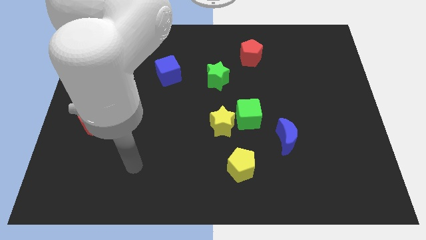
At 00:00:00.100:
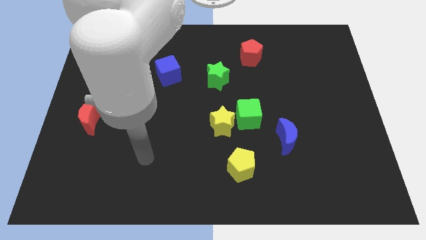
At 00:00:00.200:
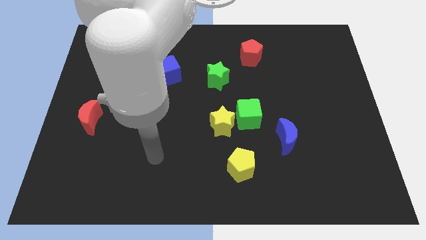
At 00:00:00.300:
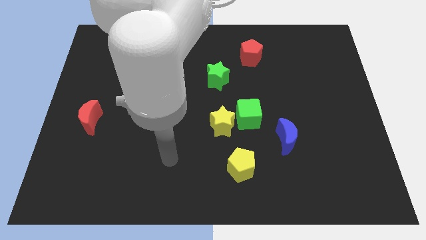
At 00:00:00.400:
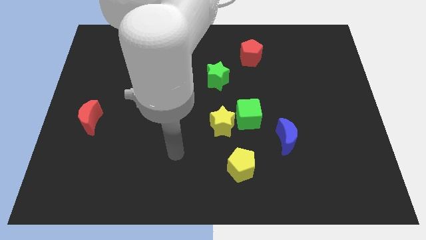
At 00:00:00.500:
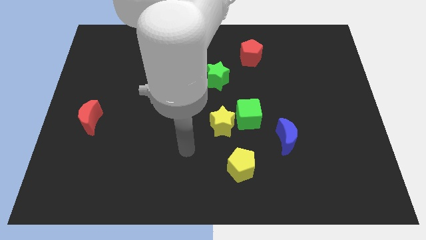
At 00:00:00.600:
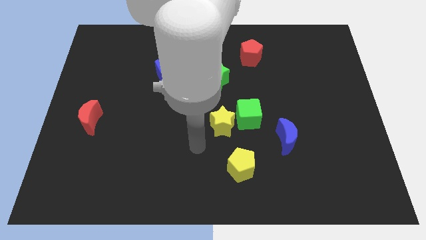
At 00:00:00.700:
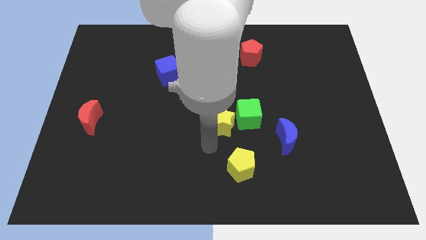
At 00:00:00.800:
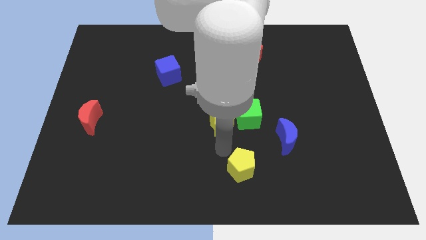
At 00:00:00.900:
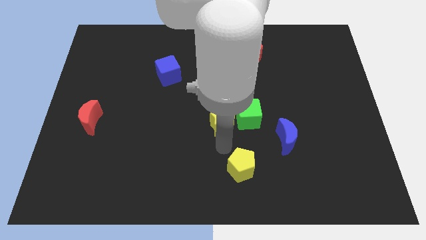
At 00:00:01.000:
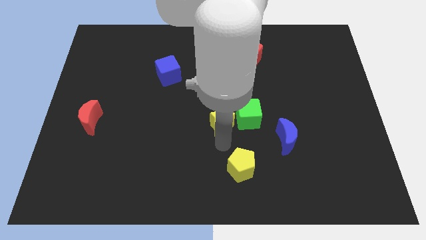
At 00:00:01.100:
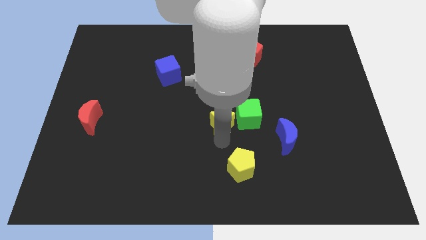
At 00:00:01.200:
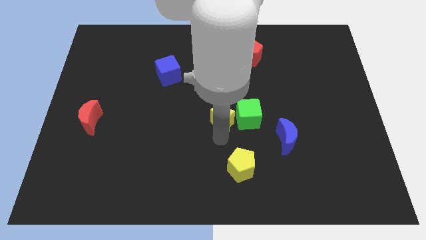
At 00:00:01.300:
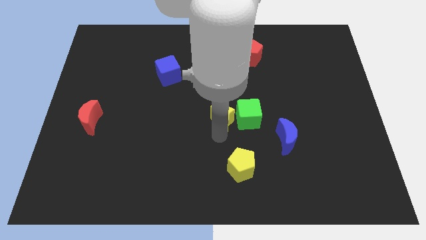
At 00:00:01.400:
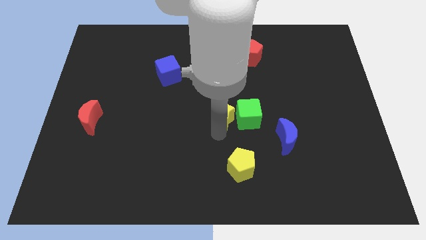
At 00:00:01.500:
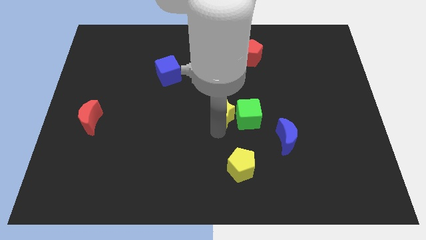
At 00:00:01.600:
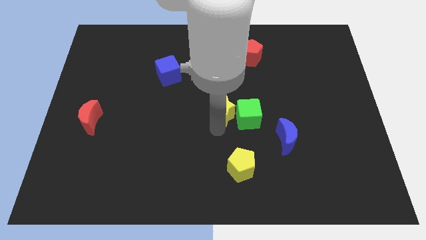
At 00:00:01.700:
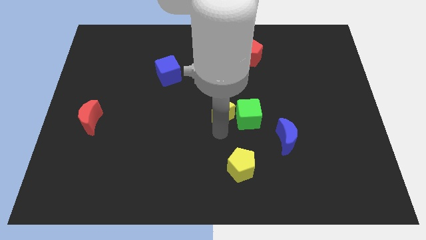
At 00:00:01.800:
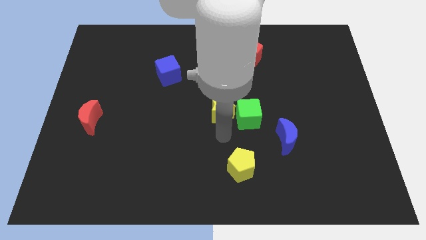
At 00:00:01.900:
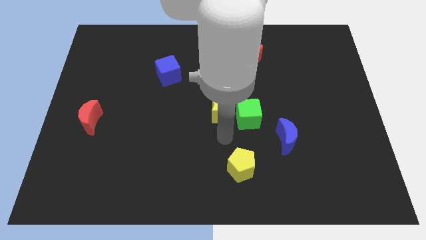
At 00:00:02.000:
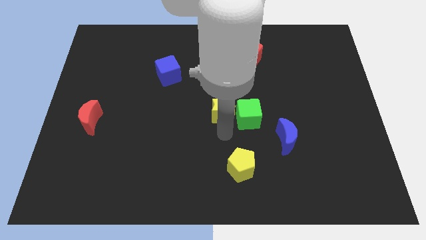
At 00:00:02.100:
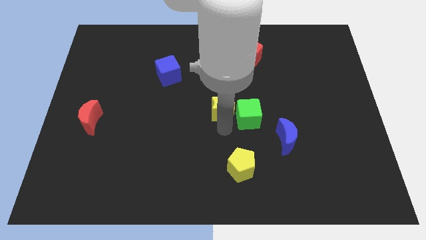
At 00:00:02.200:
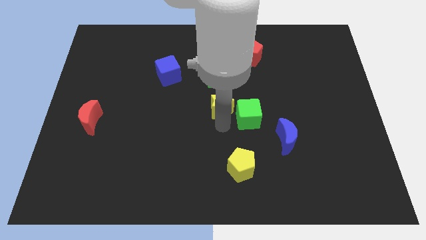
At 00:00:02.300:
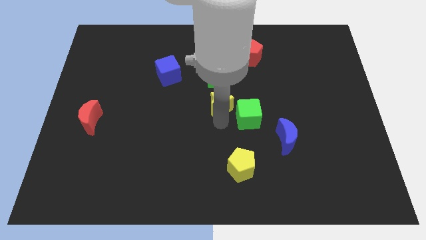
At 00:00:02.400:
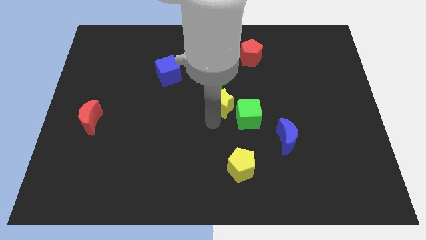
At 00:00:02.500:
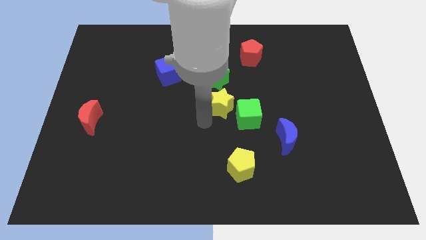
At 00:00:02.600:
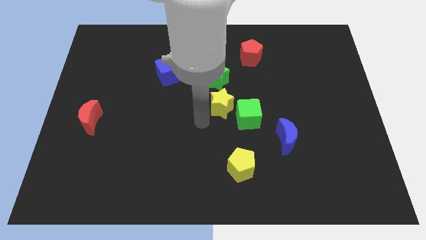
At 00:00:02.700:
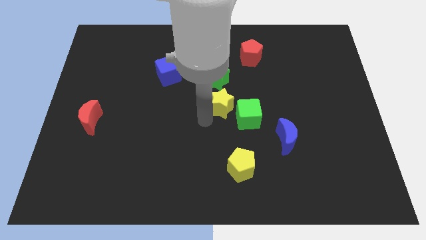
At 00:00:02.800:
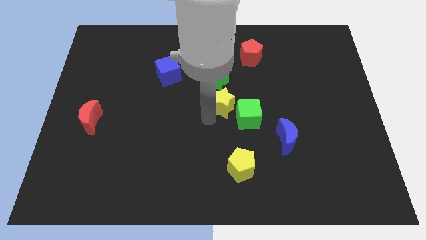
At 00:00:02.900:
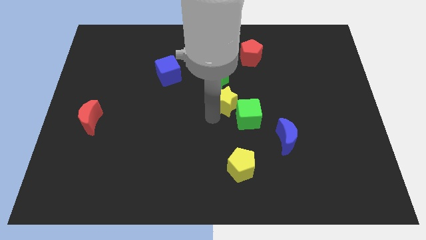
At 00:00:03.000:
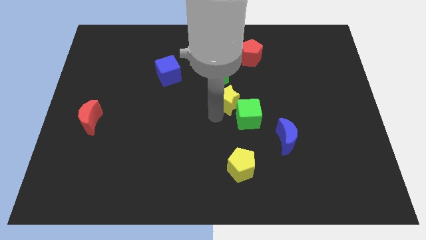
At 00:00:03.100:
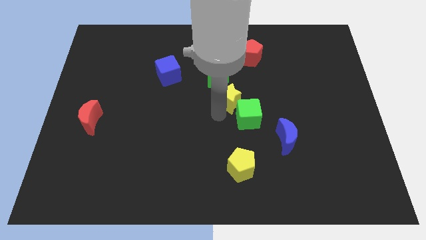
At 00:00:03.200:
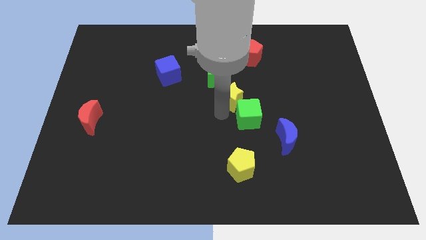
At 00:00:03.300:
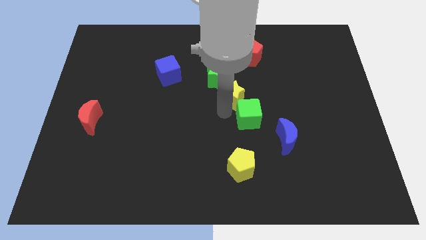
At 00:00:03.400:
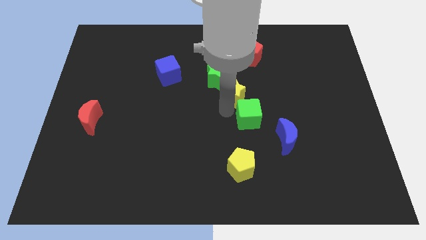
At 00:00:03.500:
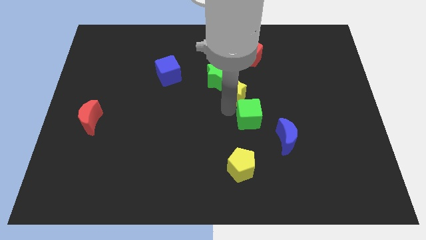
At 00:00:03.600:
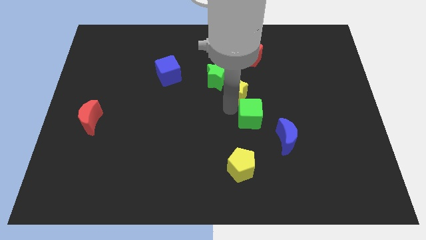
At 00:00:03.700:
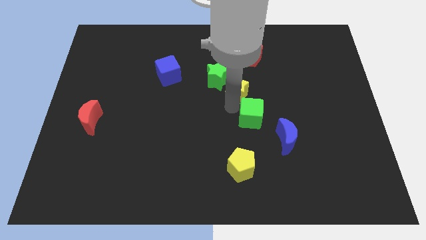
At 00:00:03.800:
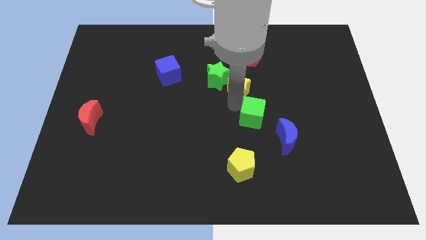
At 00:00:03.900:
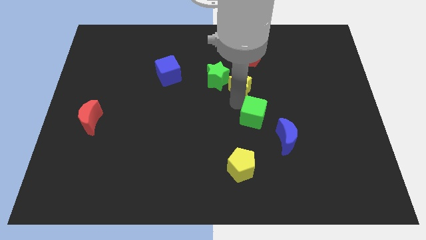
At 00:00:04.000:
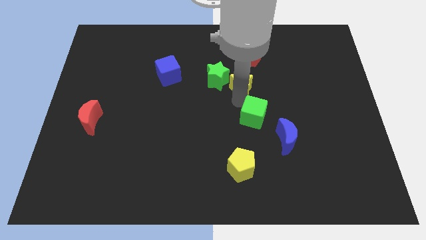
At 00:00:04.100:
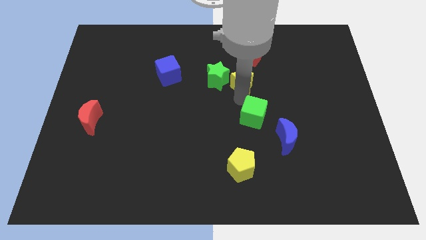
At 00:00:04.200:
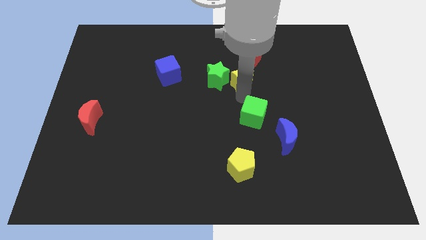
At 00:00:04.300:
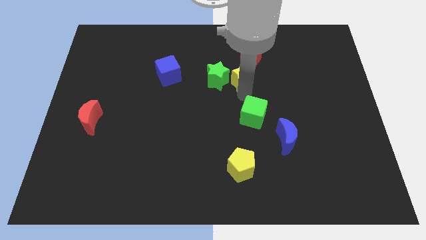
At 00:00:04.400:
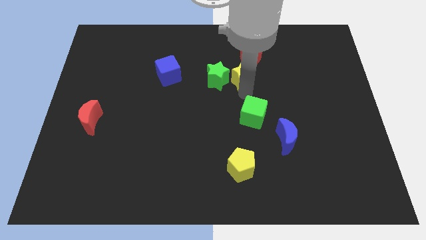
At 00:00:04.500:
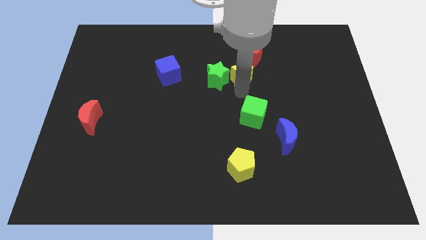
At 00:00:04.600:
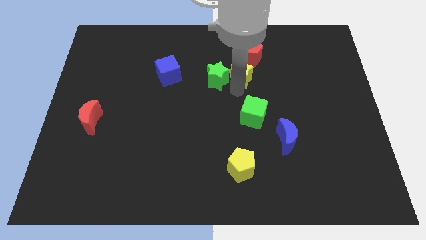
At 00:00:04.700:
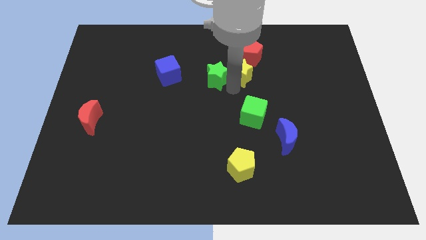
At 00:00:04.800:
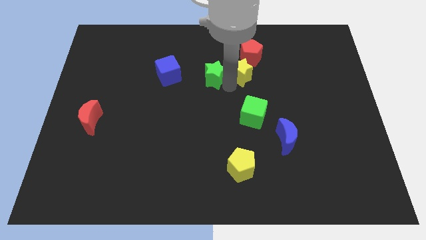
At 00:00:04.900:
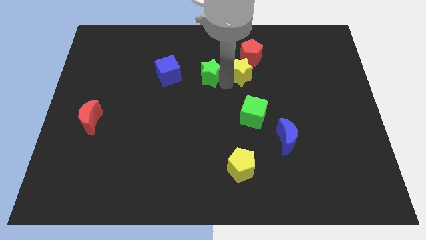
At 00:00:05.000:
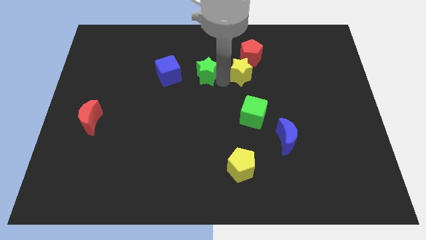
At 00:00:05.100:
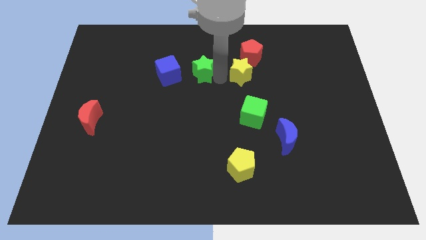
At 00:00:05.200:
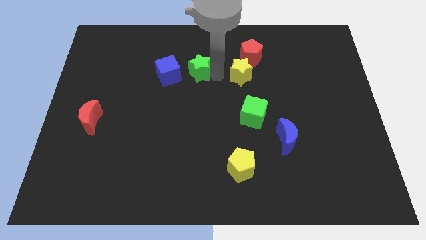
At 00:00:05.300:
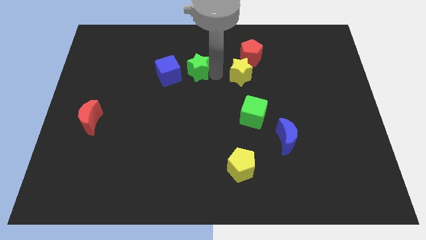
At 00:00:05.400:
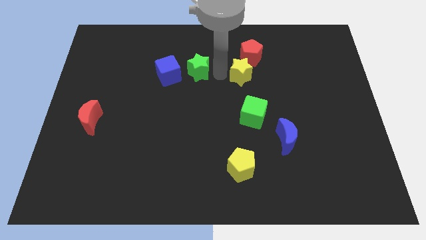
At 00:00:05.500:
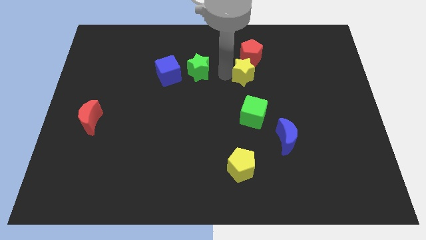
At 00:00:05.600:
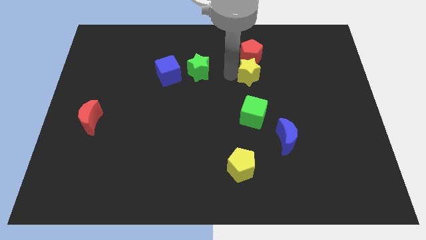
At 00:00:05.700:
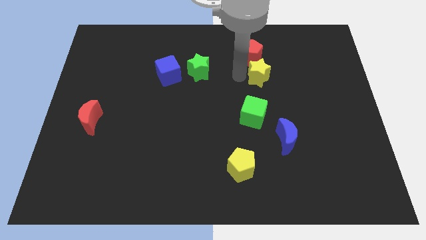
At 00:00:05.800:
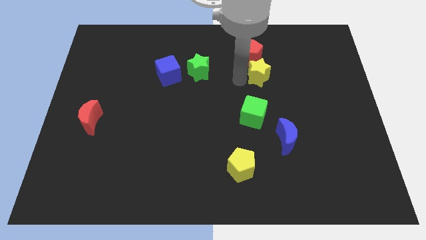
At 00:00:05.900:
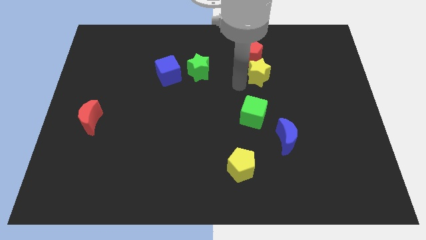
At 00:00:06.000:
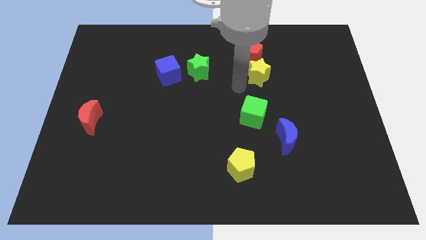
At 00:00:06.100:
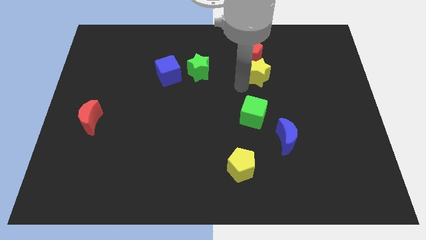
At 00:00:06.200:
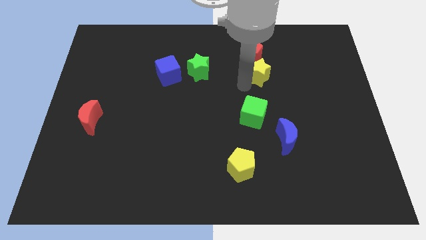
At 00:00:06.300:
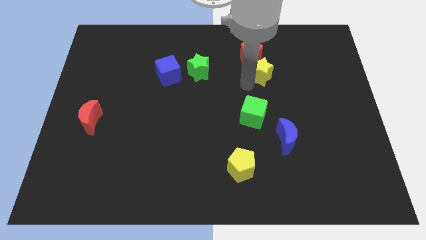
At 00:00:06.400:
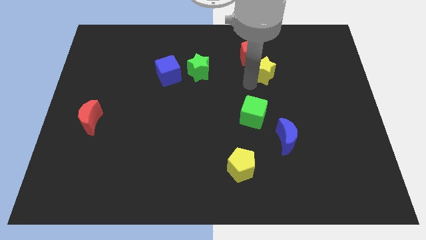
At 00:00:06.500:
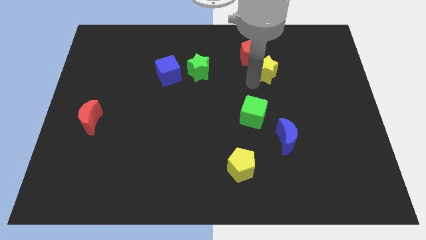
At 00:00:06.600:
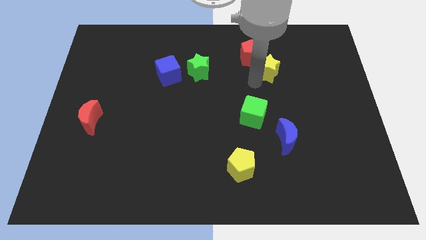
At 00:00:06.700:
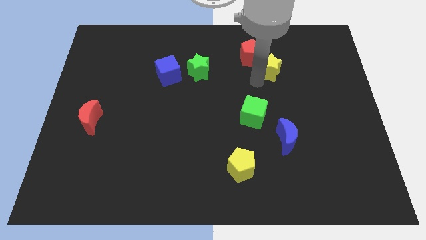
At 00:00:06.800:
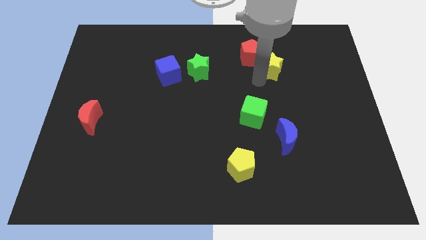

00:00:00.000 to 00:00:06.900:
push the yellow star right of the red pentagon
